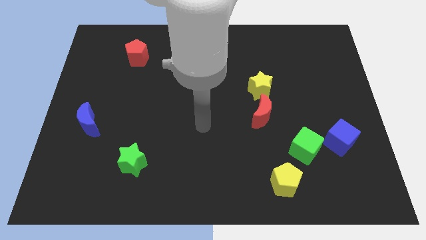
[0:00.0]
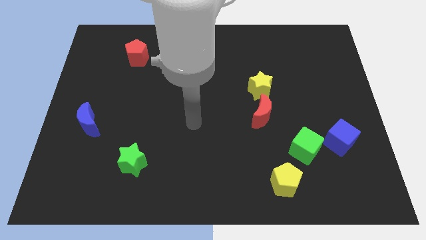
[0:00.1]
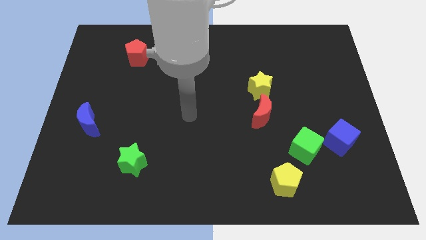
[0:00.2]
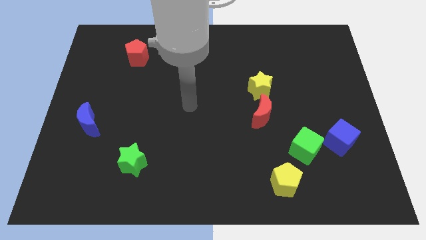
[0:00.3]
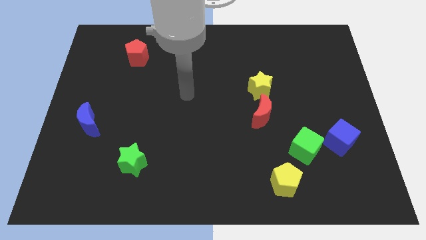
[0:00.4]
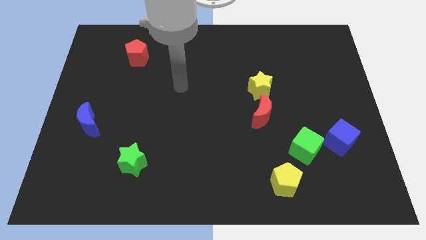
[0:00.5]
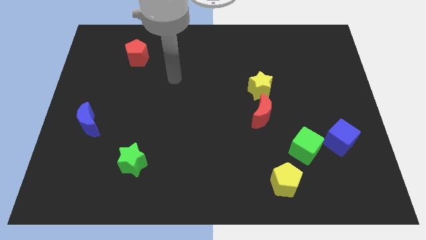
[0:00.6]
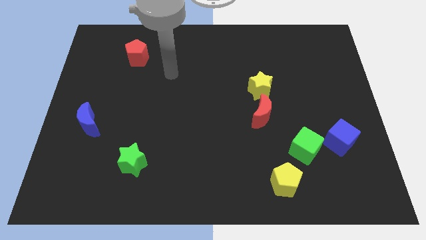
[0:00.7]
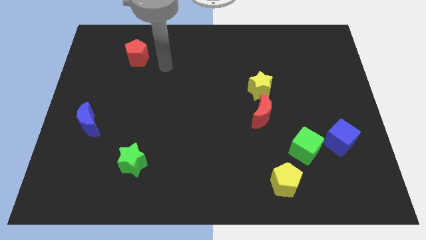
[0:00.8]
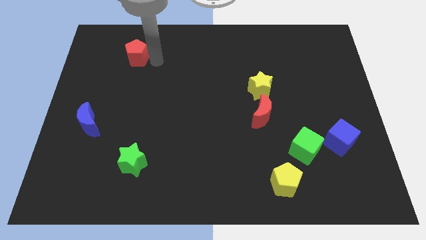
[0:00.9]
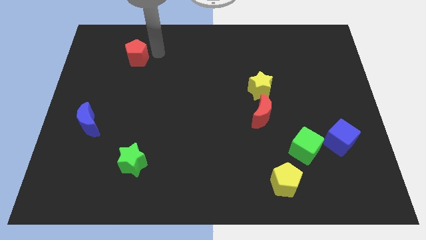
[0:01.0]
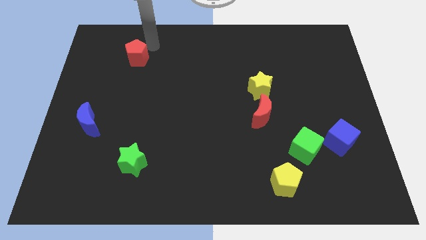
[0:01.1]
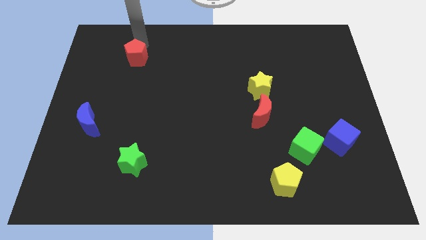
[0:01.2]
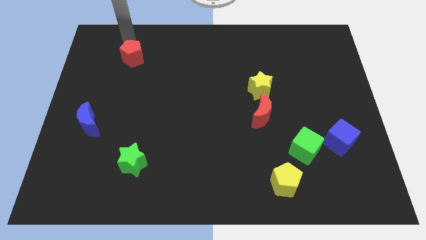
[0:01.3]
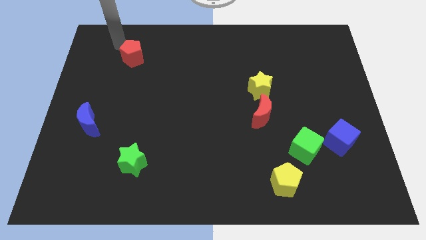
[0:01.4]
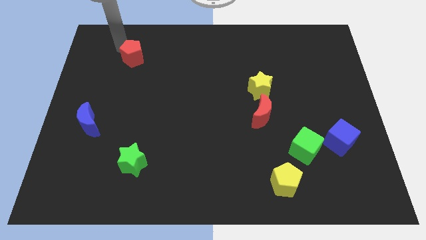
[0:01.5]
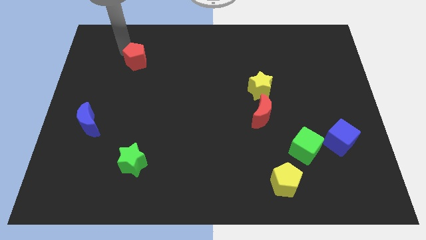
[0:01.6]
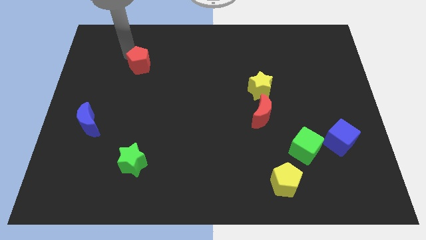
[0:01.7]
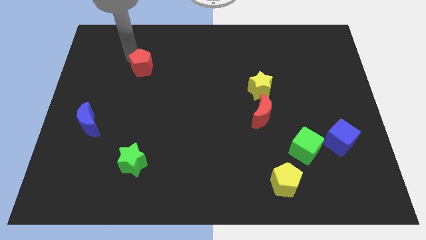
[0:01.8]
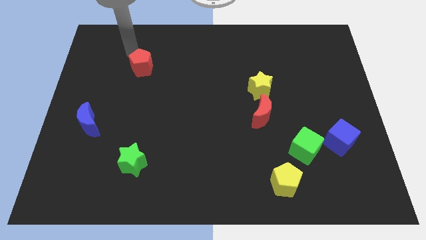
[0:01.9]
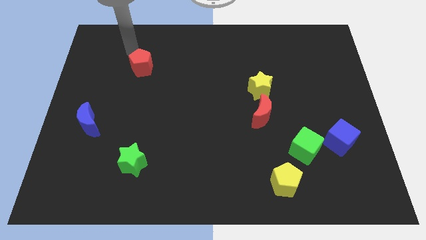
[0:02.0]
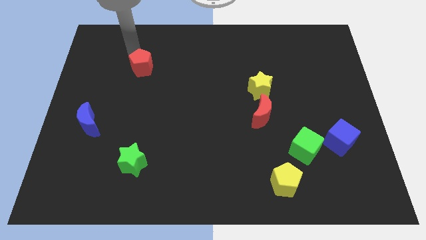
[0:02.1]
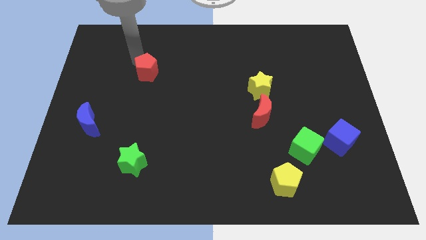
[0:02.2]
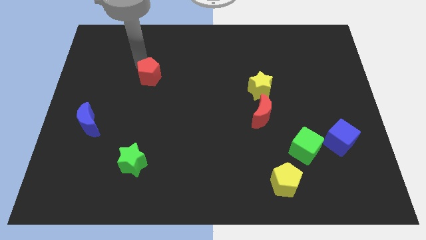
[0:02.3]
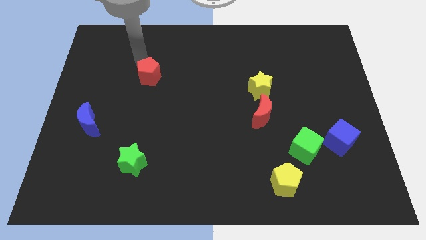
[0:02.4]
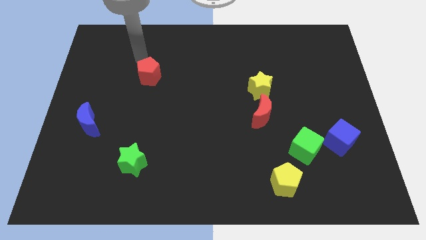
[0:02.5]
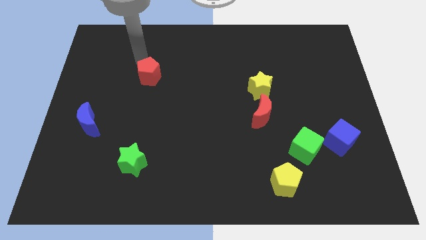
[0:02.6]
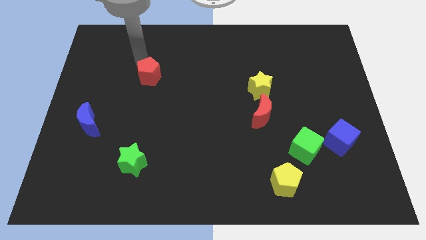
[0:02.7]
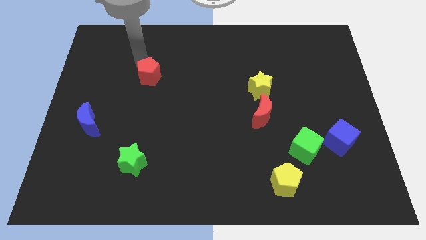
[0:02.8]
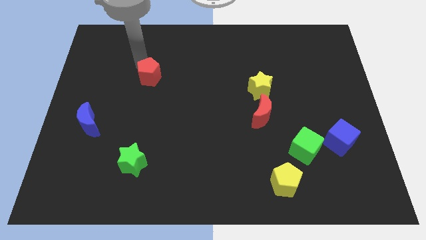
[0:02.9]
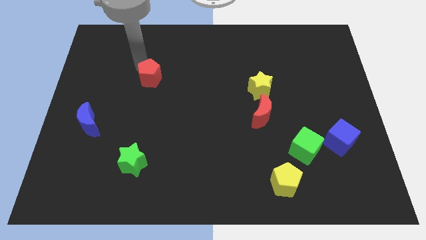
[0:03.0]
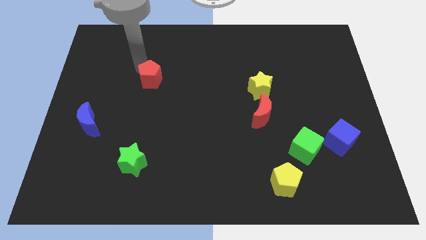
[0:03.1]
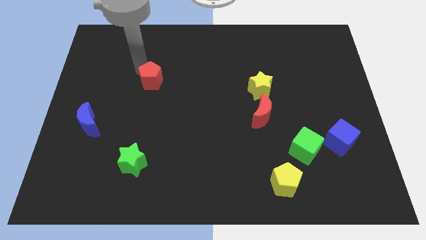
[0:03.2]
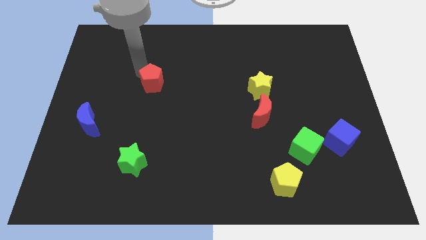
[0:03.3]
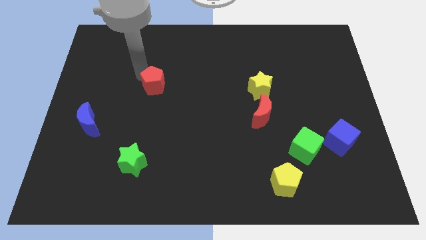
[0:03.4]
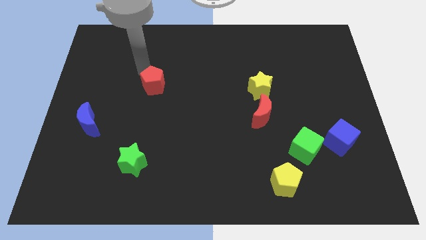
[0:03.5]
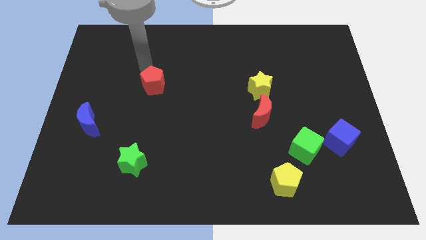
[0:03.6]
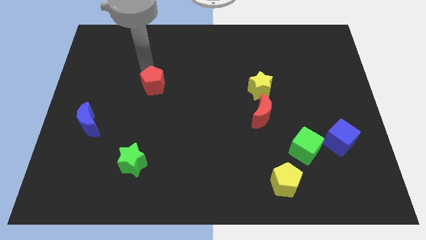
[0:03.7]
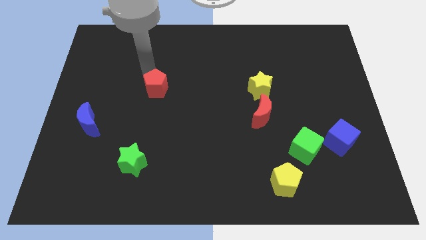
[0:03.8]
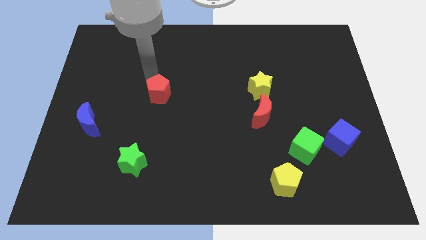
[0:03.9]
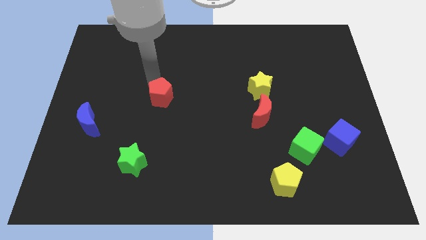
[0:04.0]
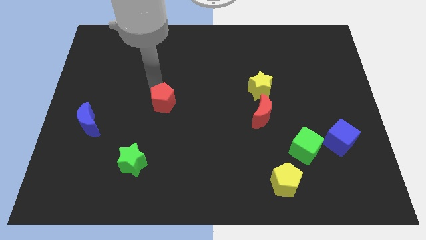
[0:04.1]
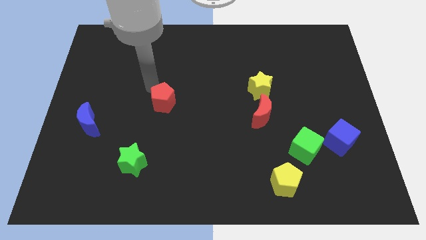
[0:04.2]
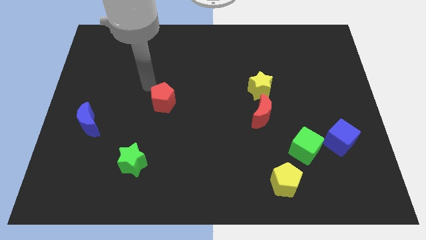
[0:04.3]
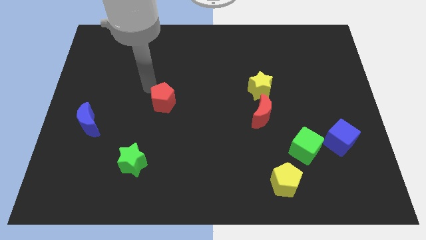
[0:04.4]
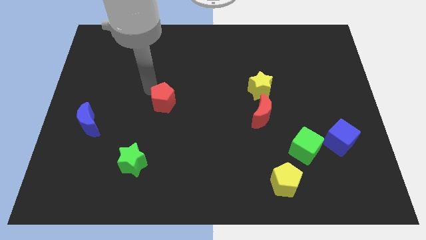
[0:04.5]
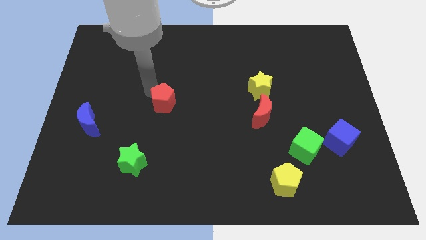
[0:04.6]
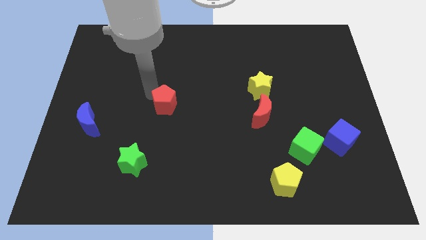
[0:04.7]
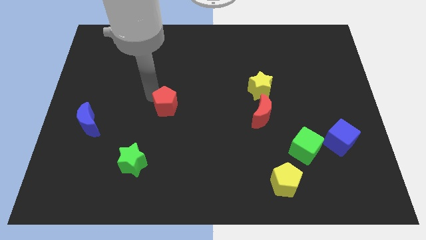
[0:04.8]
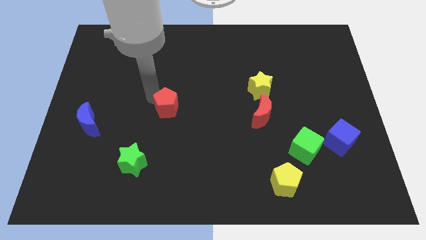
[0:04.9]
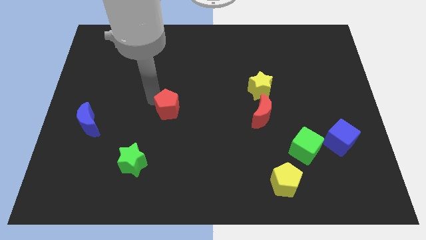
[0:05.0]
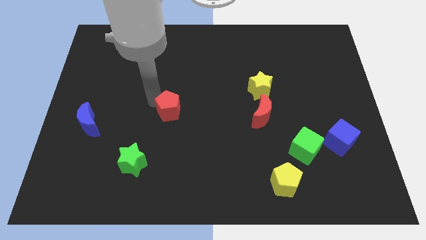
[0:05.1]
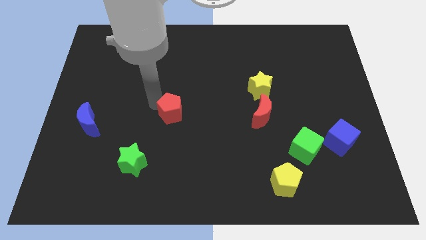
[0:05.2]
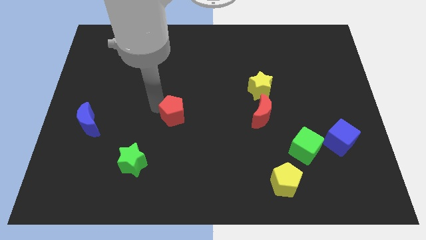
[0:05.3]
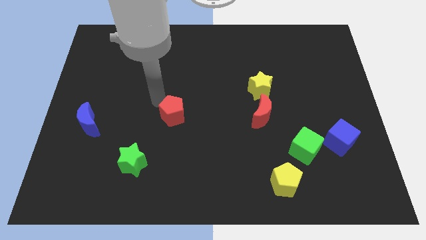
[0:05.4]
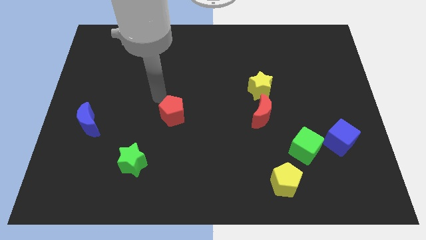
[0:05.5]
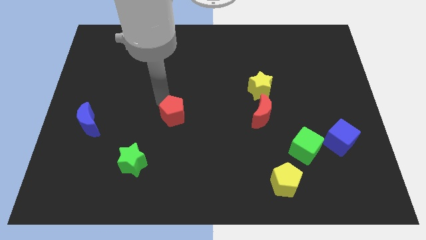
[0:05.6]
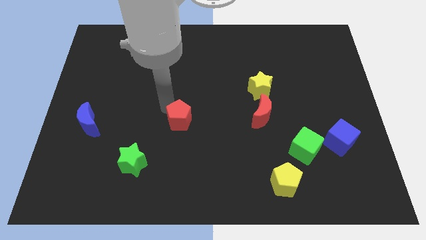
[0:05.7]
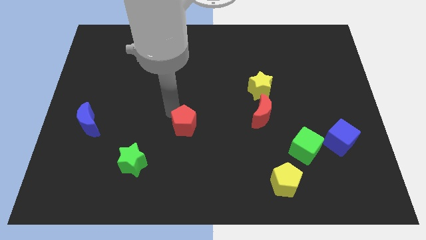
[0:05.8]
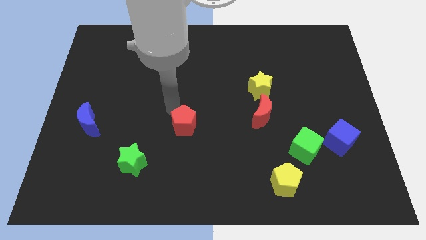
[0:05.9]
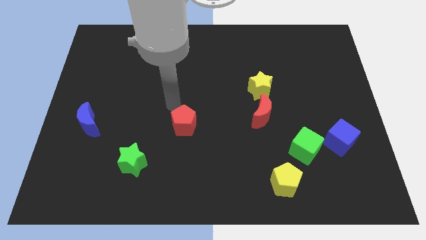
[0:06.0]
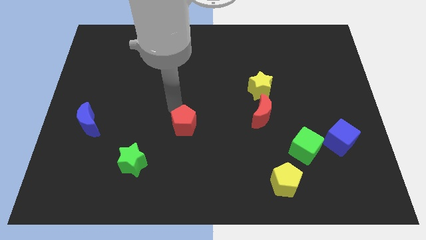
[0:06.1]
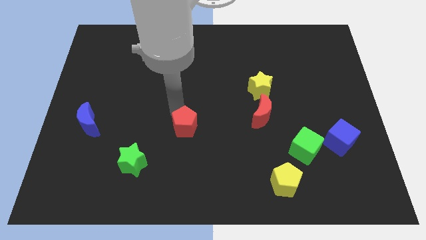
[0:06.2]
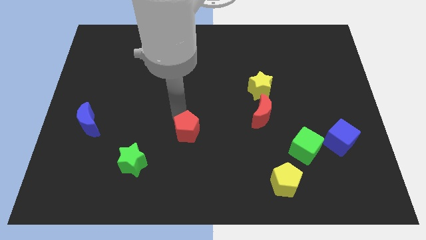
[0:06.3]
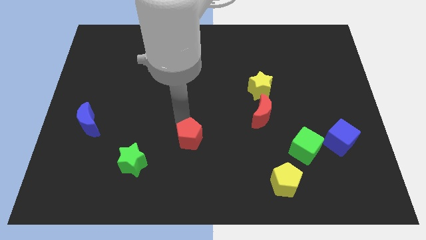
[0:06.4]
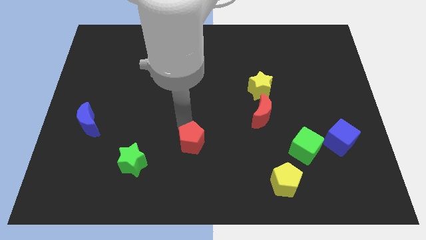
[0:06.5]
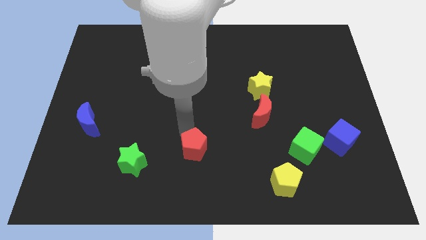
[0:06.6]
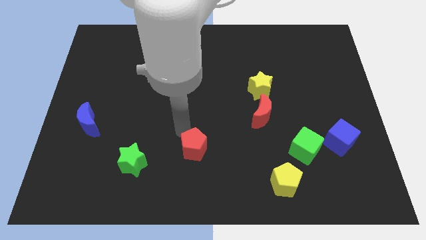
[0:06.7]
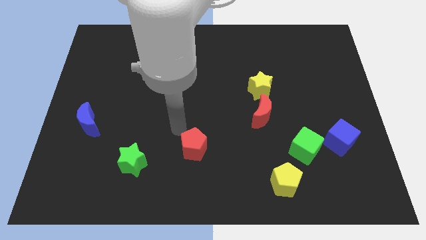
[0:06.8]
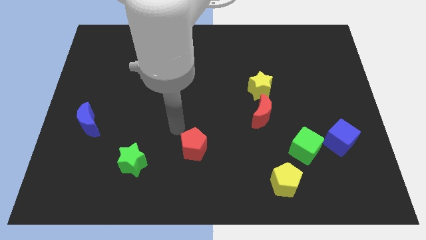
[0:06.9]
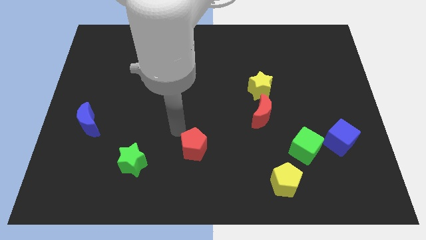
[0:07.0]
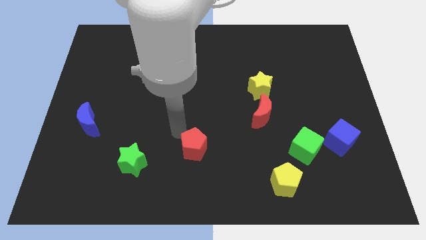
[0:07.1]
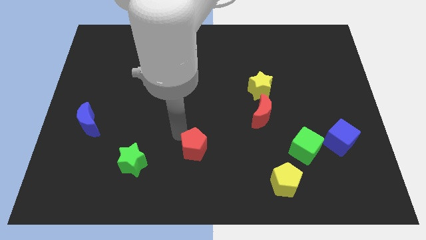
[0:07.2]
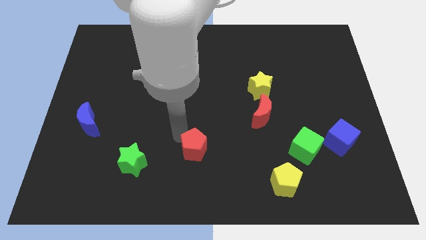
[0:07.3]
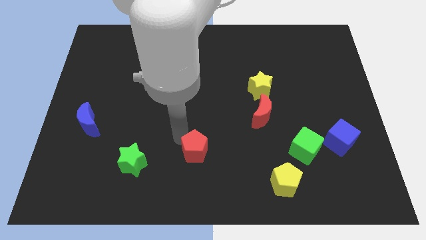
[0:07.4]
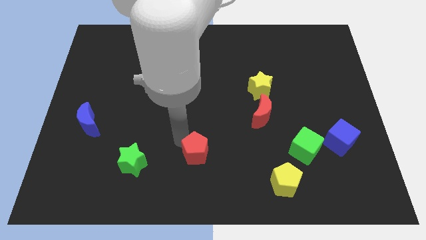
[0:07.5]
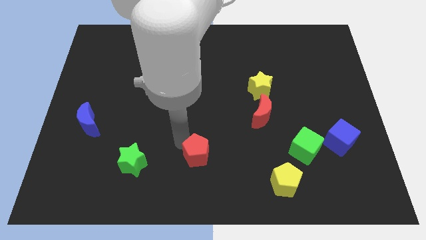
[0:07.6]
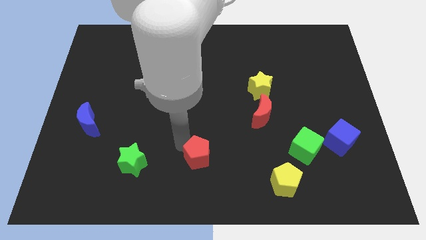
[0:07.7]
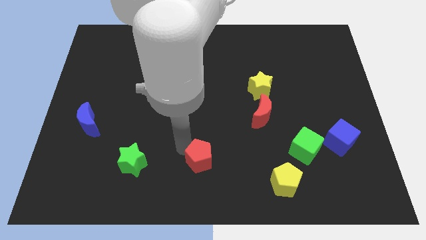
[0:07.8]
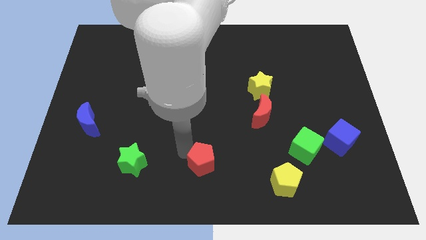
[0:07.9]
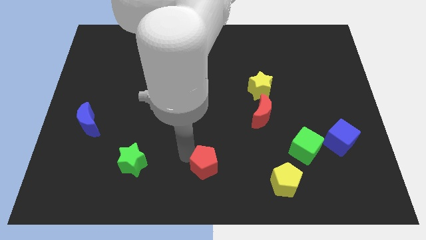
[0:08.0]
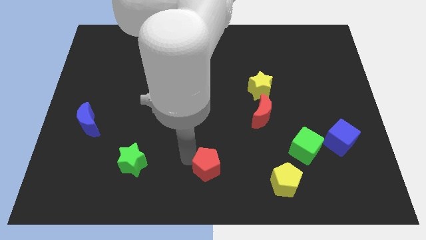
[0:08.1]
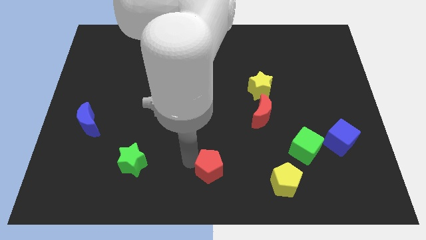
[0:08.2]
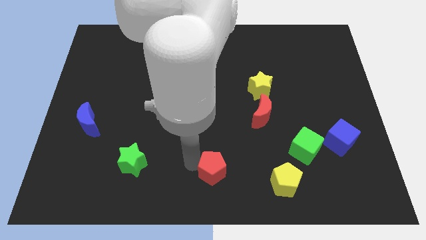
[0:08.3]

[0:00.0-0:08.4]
push the red pentagon just left of the yellow pentagon
